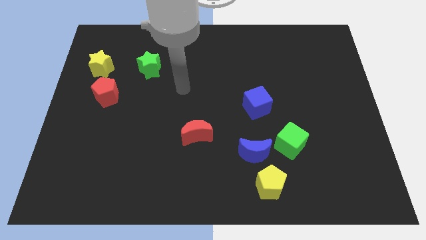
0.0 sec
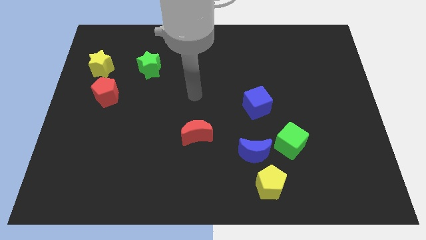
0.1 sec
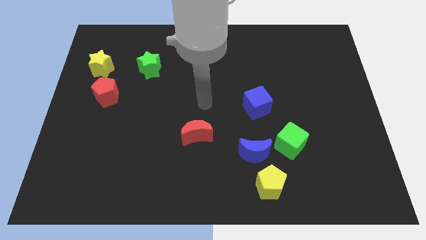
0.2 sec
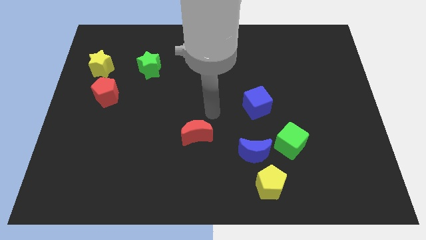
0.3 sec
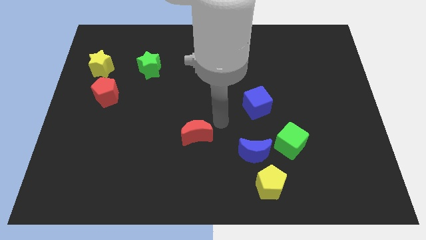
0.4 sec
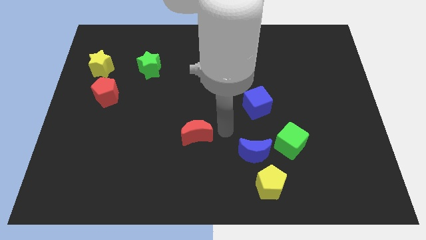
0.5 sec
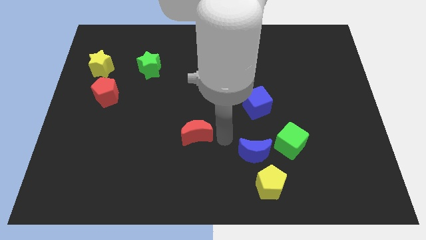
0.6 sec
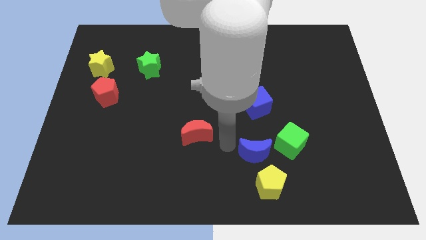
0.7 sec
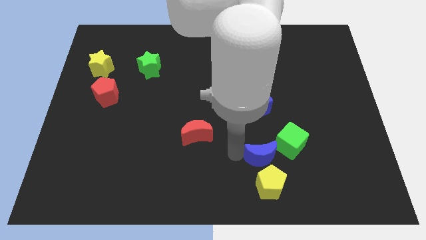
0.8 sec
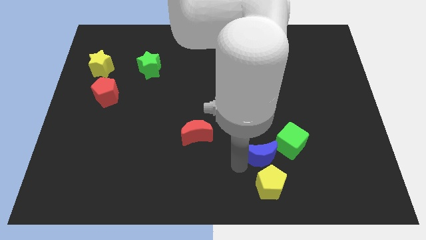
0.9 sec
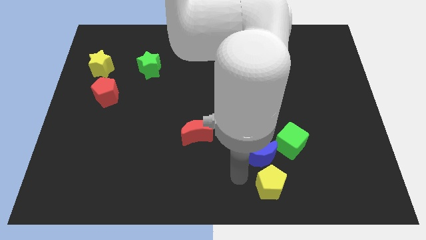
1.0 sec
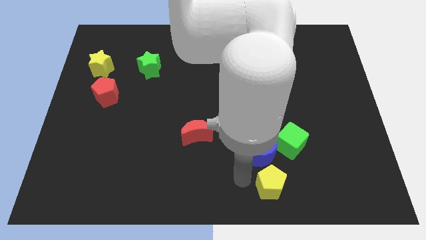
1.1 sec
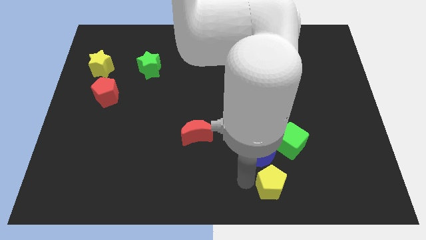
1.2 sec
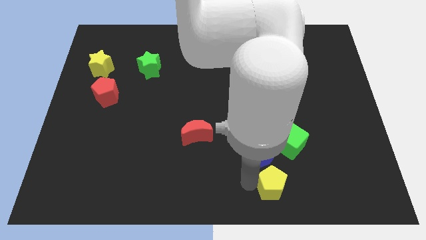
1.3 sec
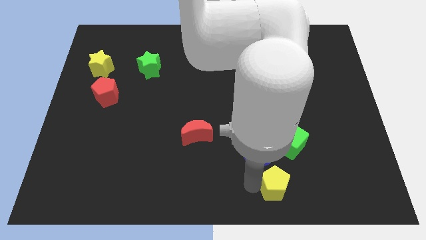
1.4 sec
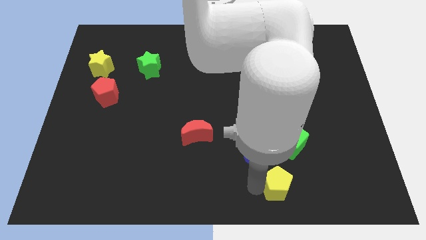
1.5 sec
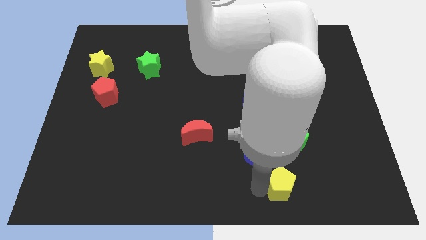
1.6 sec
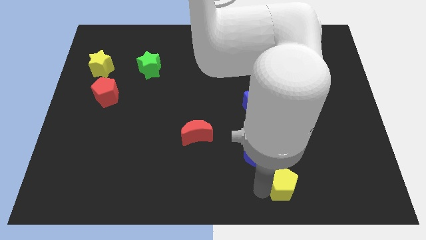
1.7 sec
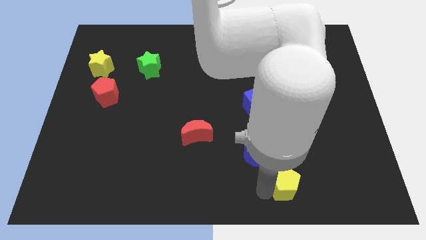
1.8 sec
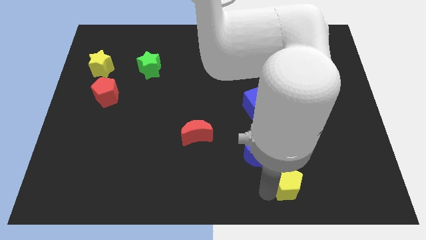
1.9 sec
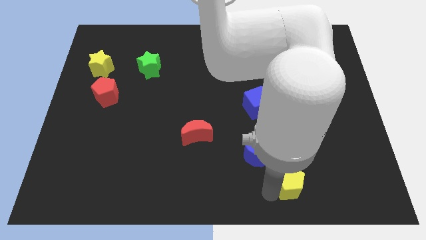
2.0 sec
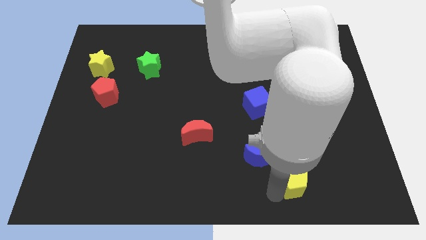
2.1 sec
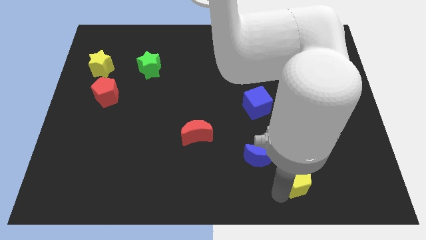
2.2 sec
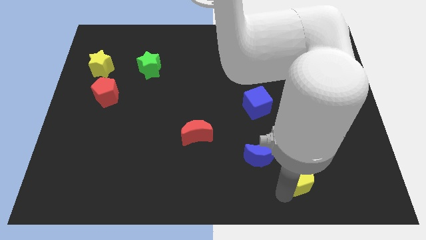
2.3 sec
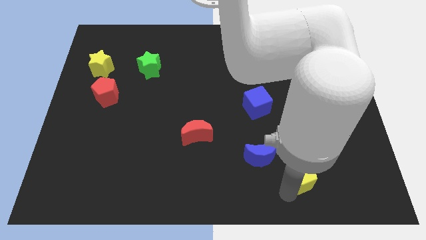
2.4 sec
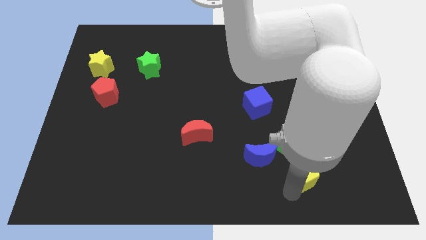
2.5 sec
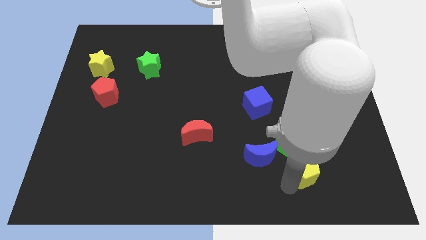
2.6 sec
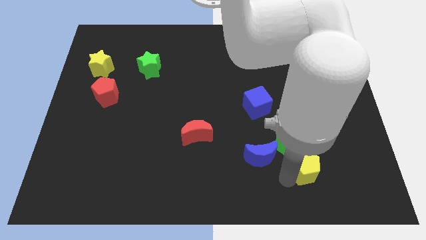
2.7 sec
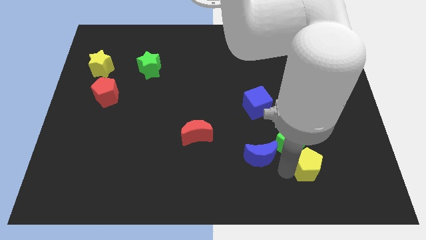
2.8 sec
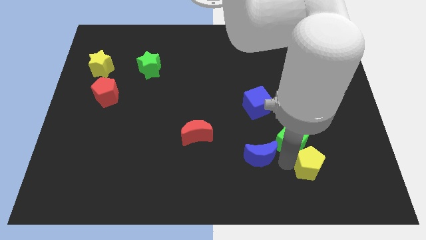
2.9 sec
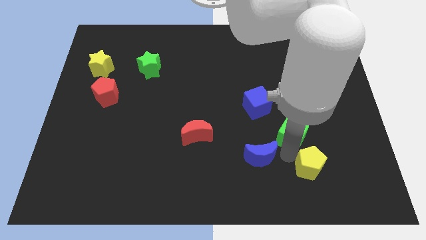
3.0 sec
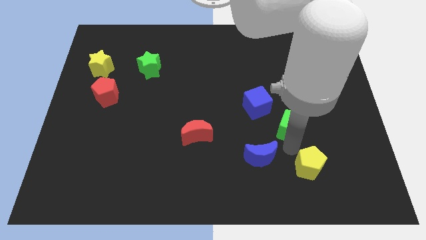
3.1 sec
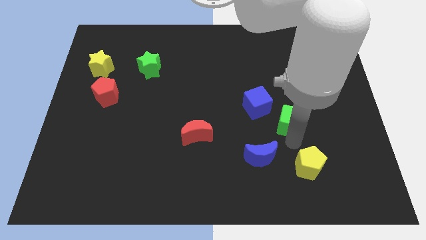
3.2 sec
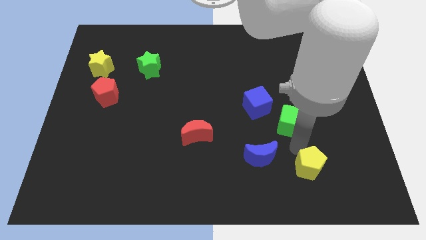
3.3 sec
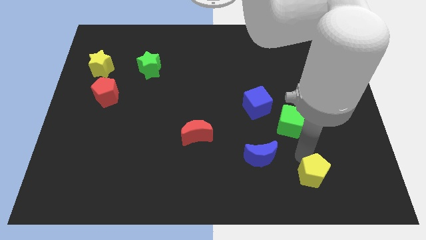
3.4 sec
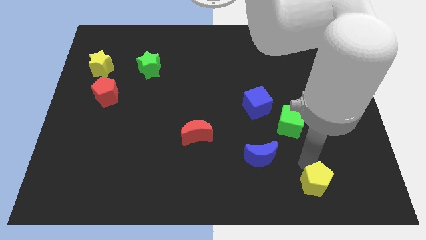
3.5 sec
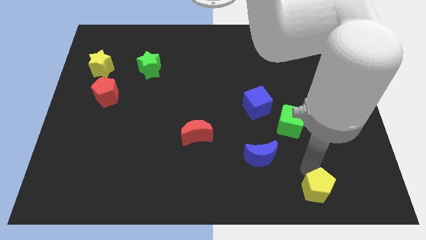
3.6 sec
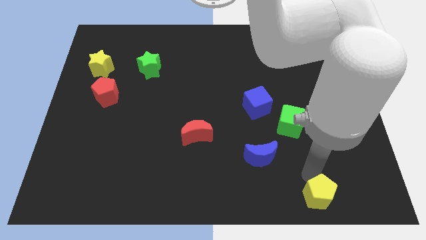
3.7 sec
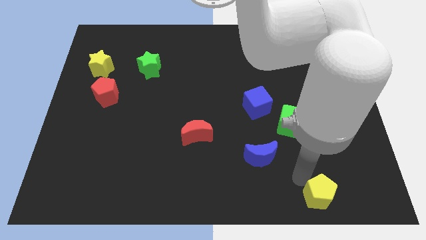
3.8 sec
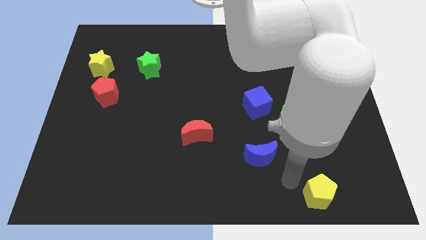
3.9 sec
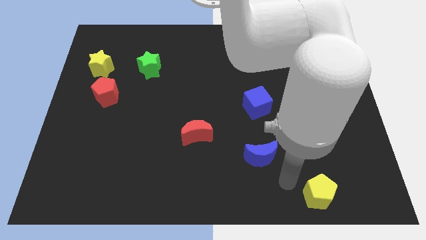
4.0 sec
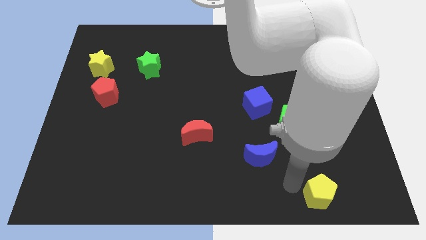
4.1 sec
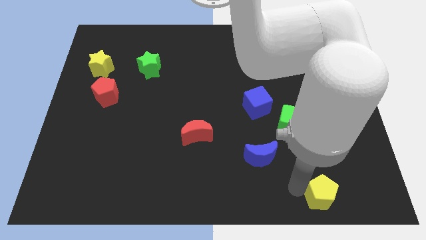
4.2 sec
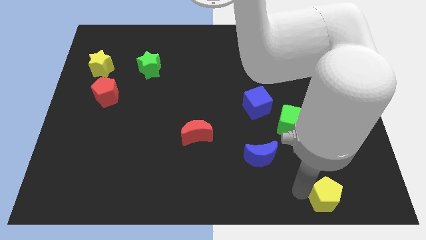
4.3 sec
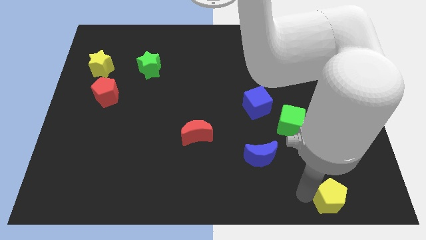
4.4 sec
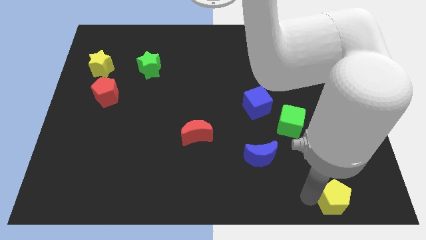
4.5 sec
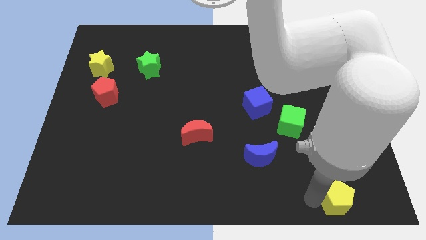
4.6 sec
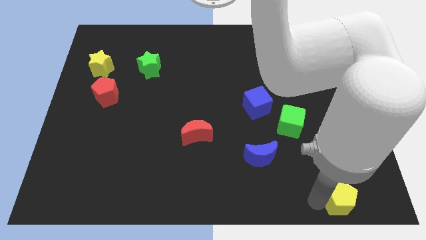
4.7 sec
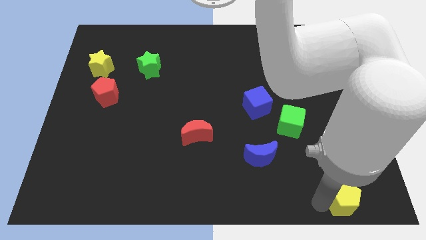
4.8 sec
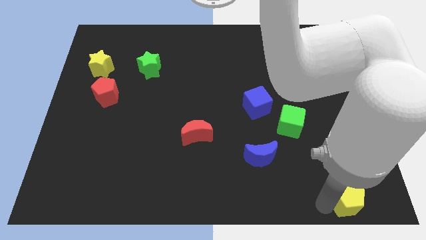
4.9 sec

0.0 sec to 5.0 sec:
slide the yellow pentagon to the bottom right of the board
